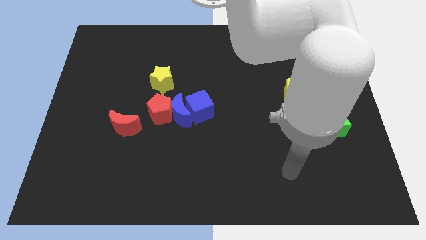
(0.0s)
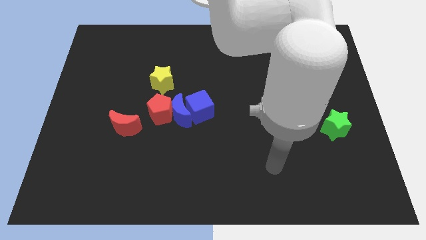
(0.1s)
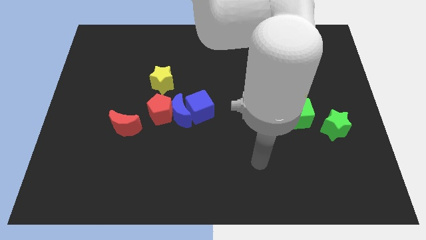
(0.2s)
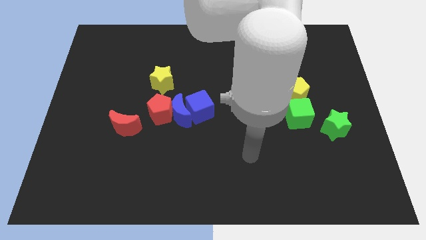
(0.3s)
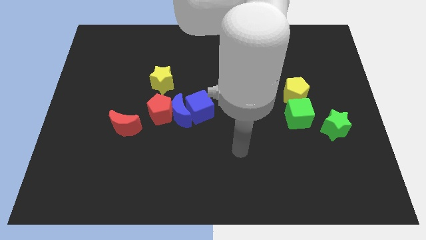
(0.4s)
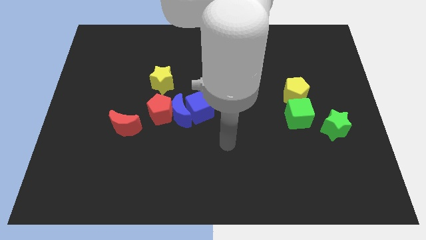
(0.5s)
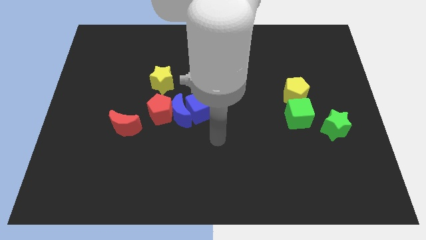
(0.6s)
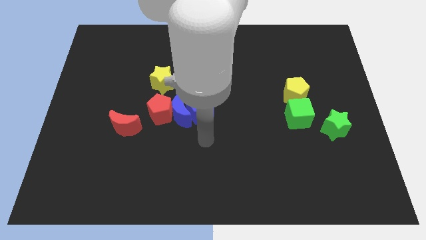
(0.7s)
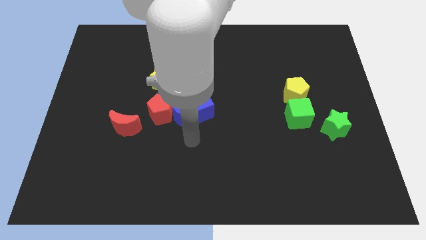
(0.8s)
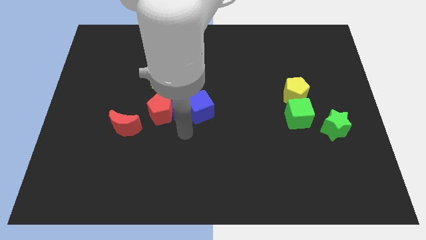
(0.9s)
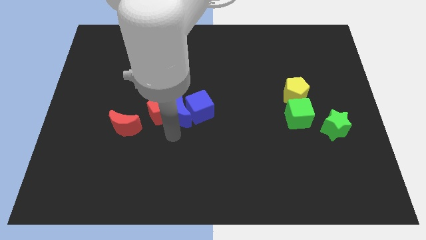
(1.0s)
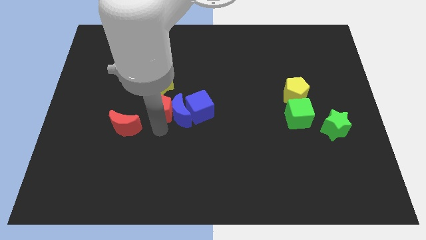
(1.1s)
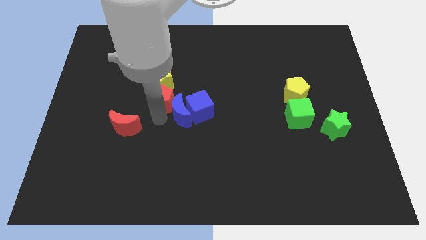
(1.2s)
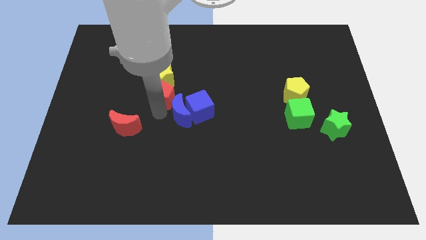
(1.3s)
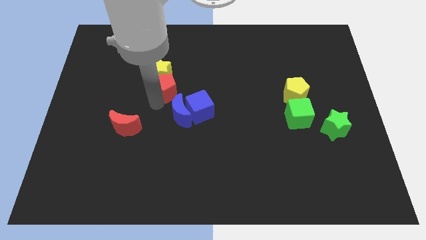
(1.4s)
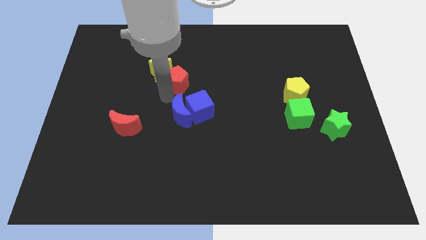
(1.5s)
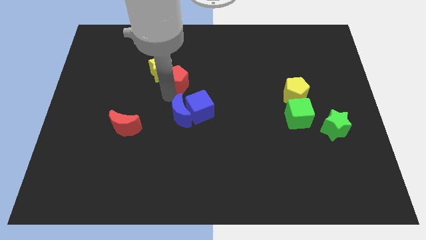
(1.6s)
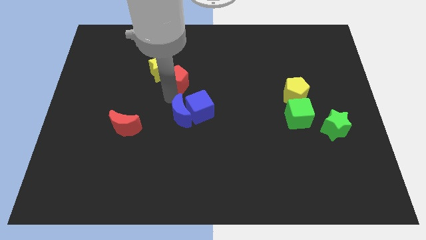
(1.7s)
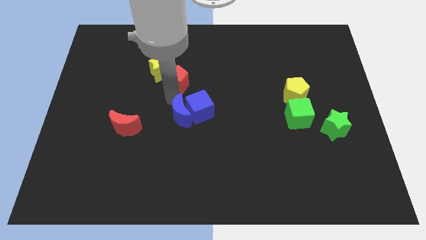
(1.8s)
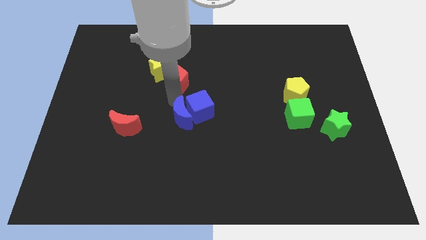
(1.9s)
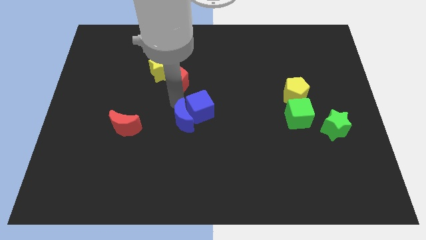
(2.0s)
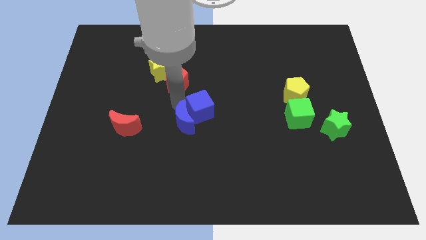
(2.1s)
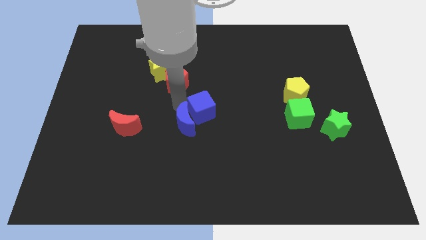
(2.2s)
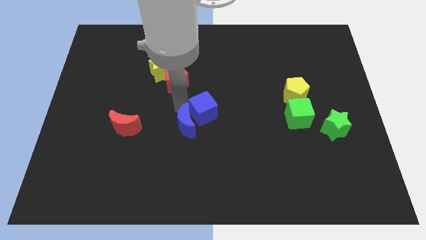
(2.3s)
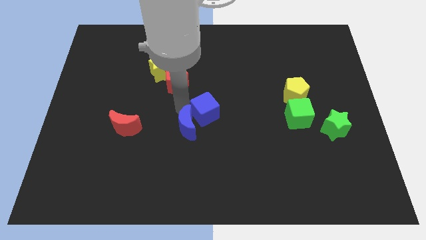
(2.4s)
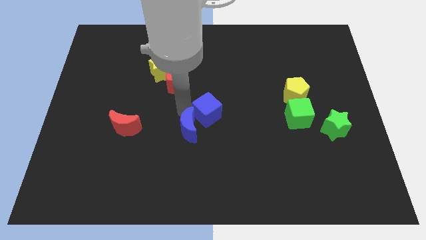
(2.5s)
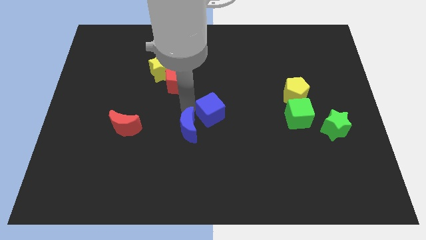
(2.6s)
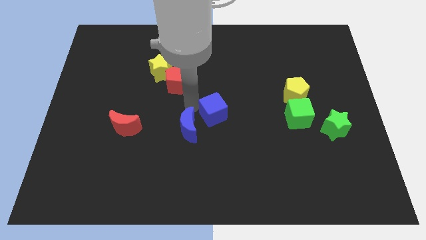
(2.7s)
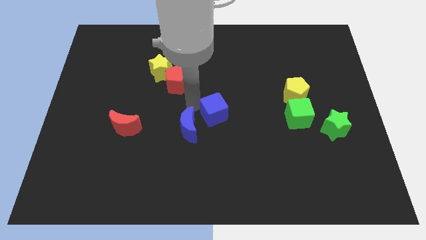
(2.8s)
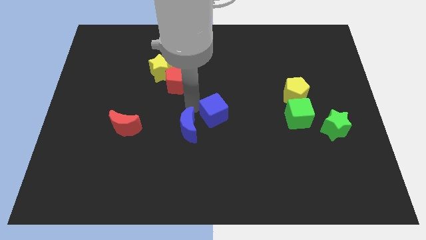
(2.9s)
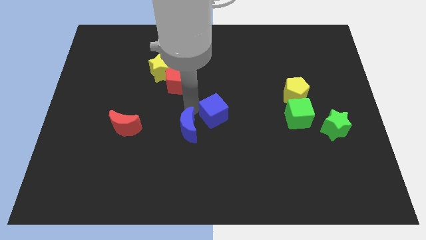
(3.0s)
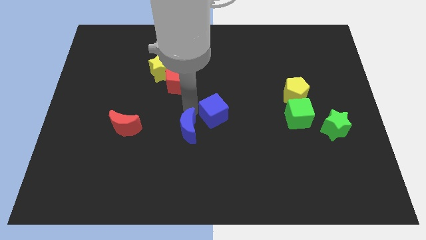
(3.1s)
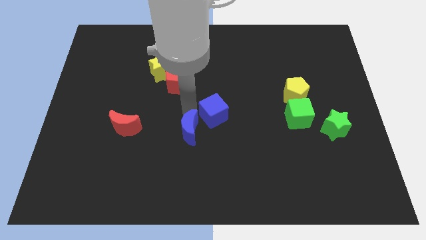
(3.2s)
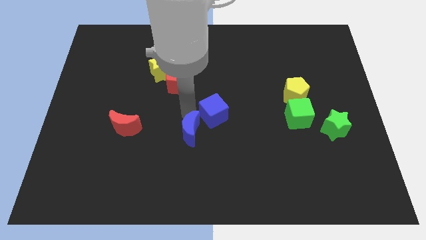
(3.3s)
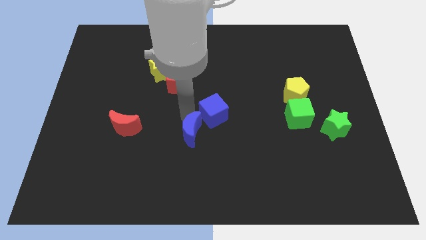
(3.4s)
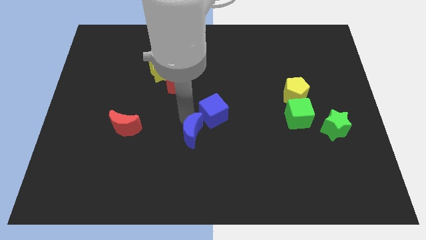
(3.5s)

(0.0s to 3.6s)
separate the blue moon from the red pentagon and blue cube

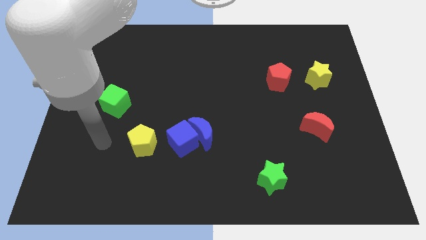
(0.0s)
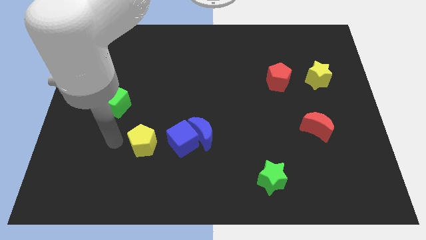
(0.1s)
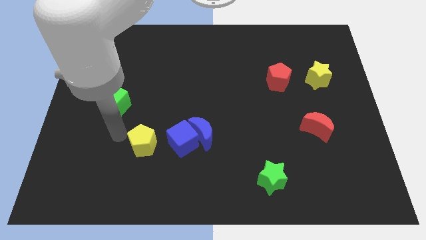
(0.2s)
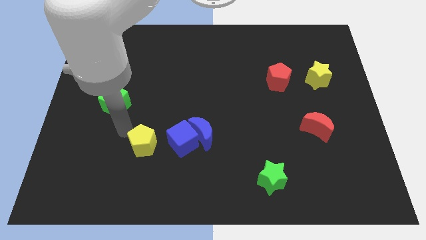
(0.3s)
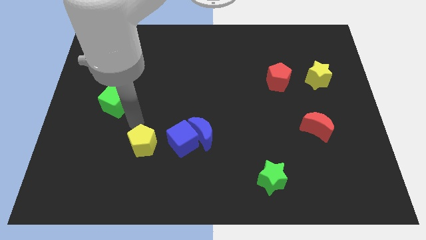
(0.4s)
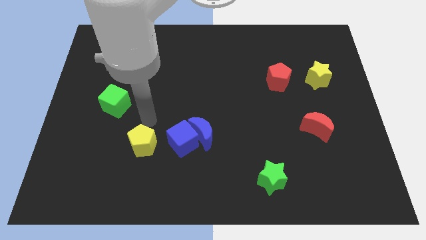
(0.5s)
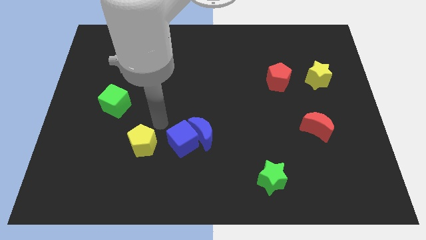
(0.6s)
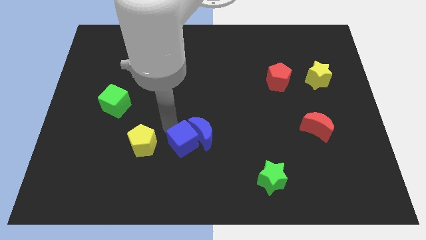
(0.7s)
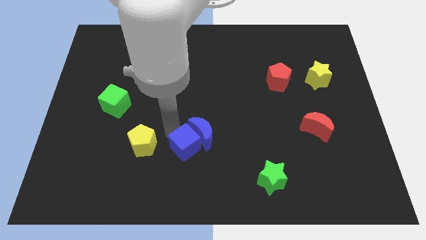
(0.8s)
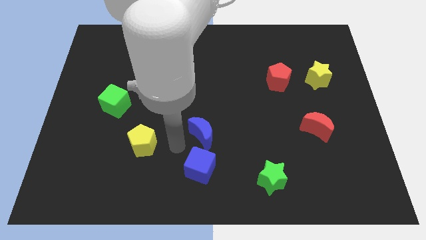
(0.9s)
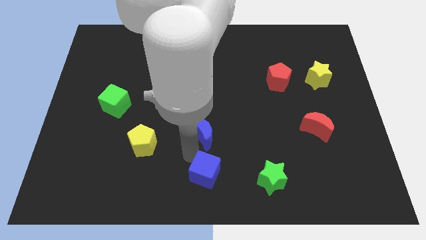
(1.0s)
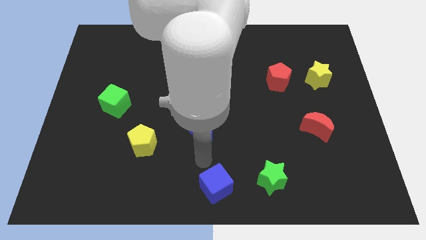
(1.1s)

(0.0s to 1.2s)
pull the blue moon apart from the blue cube

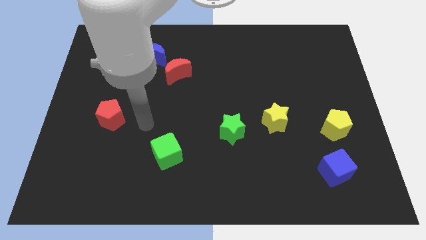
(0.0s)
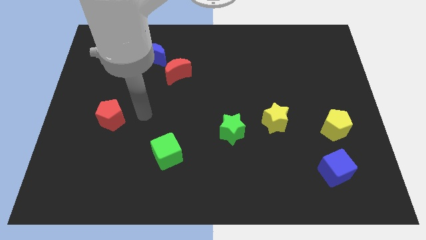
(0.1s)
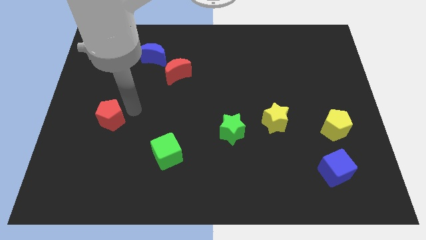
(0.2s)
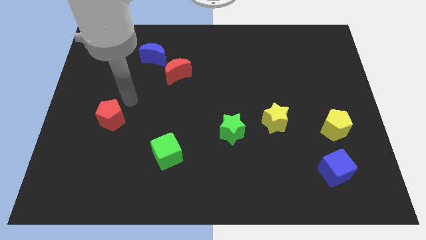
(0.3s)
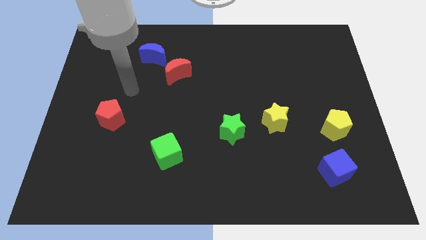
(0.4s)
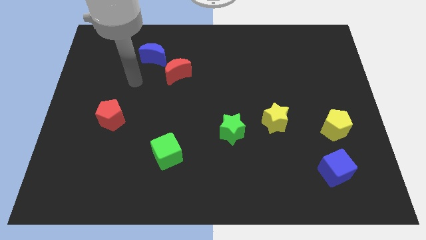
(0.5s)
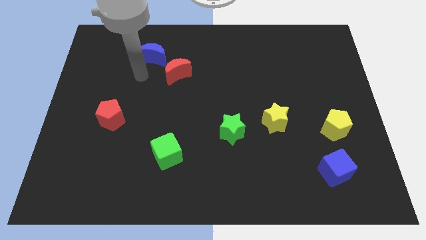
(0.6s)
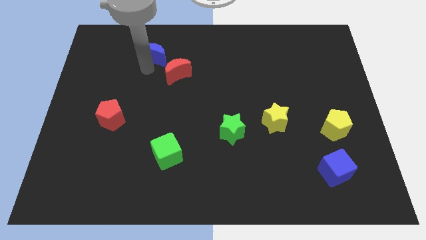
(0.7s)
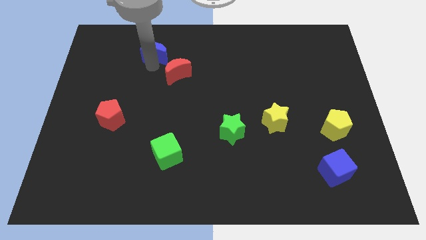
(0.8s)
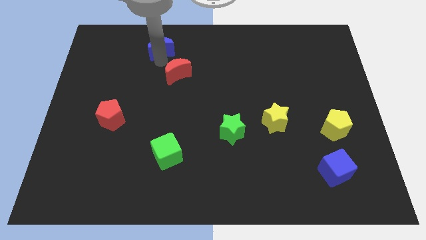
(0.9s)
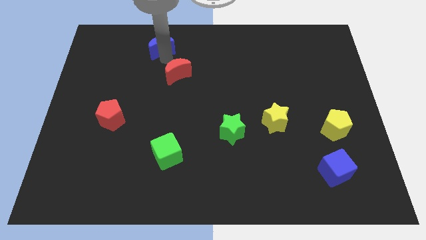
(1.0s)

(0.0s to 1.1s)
pull the red moon apart from the blue moon

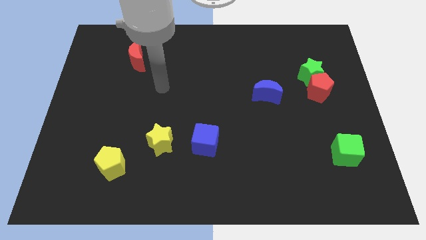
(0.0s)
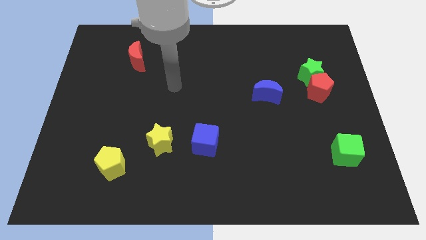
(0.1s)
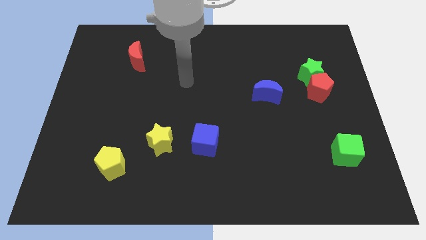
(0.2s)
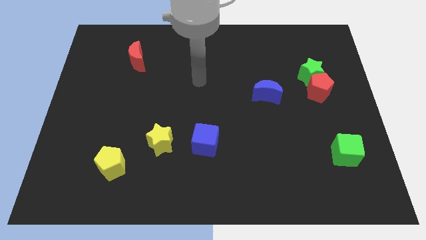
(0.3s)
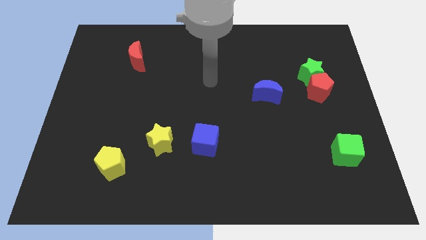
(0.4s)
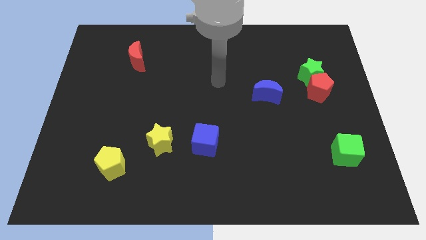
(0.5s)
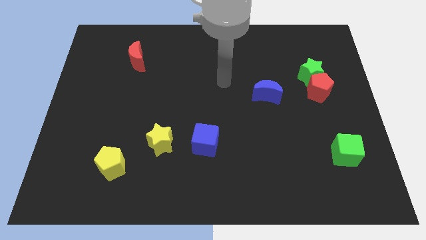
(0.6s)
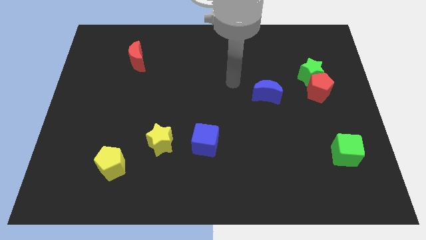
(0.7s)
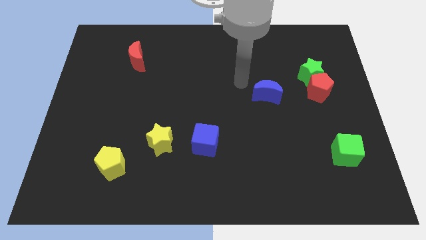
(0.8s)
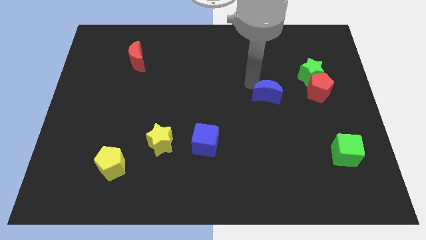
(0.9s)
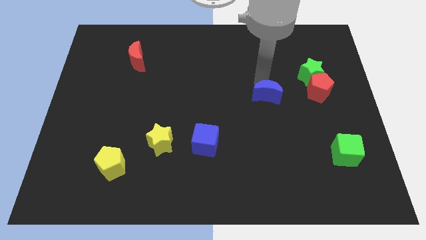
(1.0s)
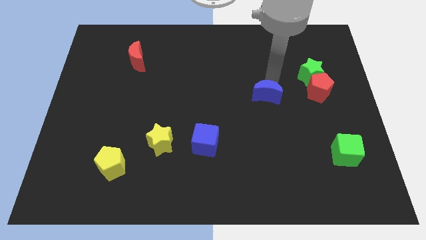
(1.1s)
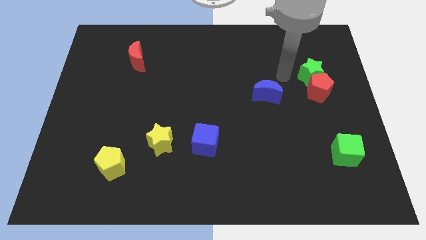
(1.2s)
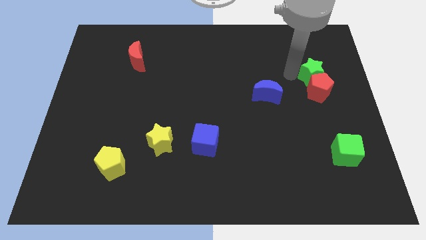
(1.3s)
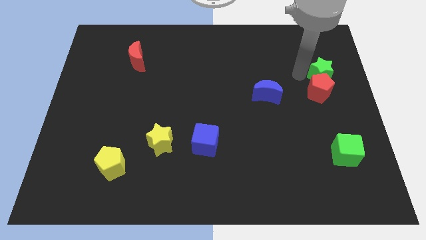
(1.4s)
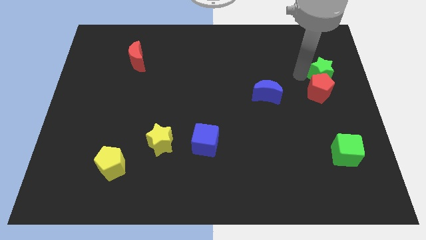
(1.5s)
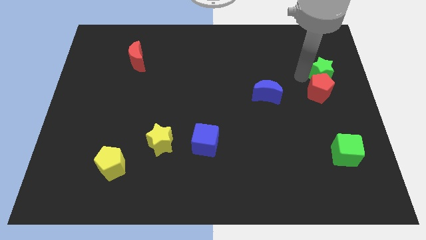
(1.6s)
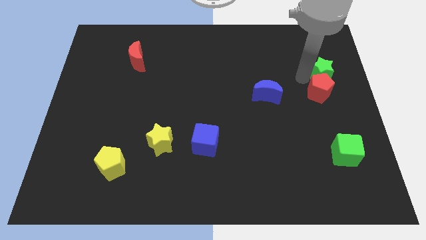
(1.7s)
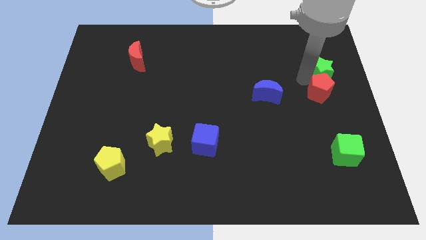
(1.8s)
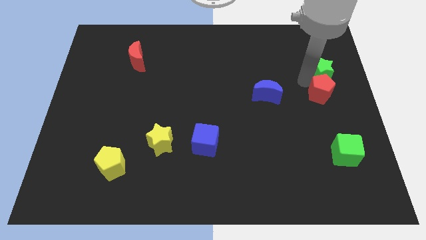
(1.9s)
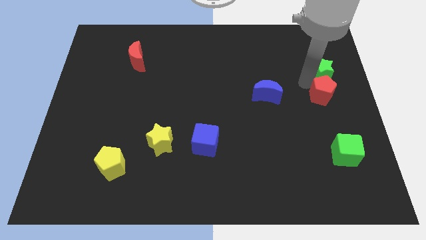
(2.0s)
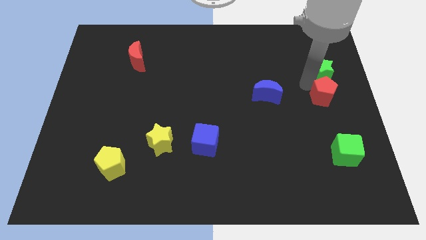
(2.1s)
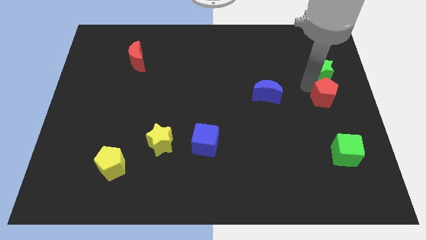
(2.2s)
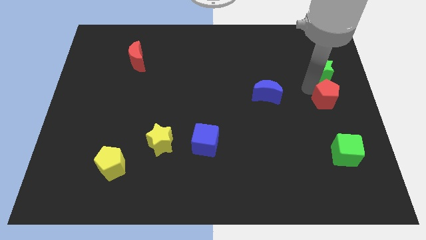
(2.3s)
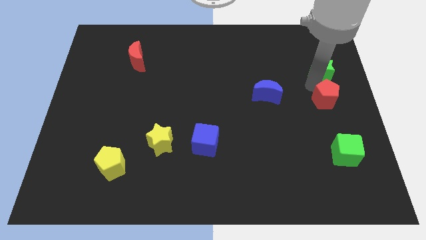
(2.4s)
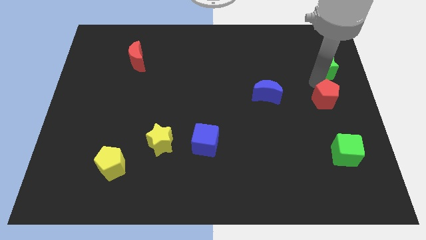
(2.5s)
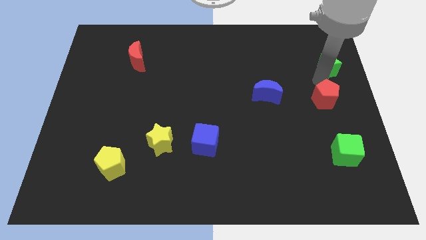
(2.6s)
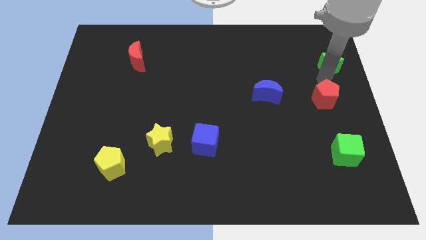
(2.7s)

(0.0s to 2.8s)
pull the red pentagon apart from the green star

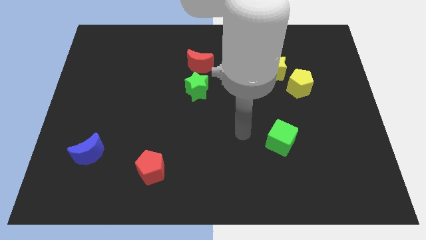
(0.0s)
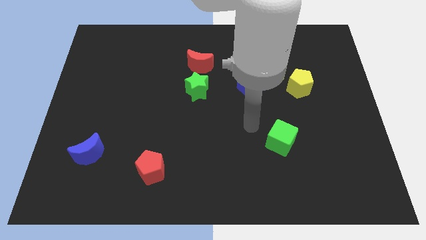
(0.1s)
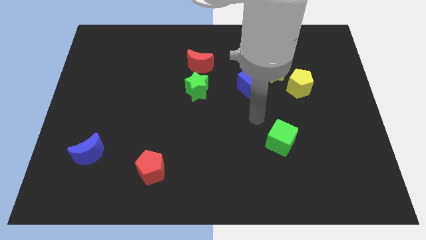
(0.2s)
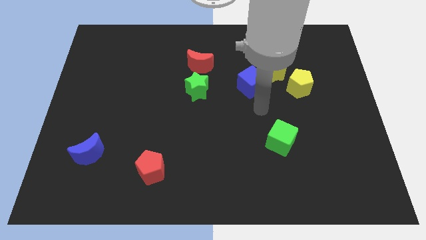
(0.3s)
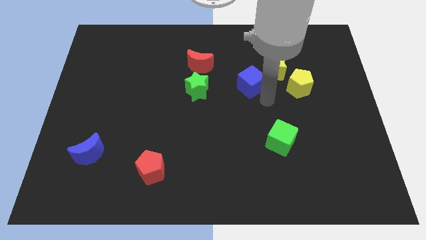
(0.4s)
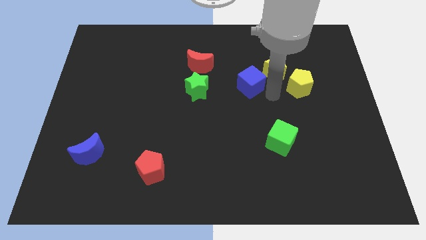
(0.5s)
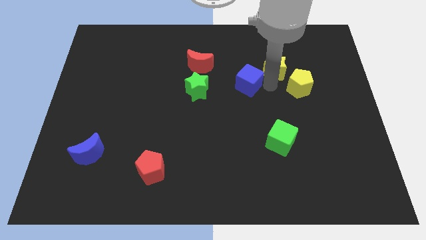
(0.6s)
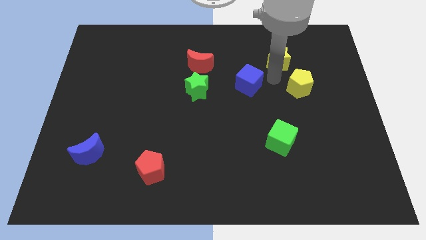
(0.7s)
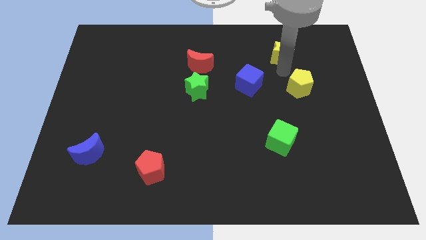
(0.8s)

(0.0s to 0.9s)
move the yellow pentagon away from the yellow star
